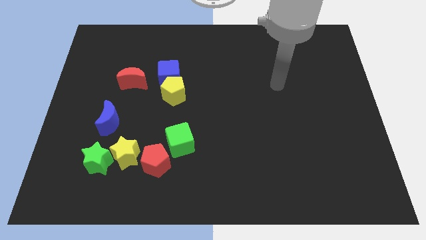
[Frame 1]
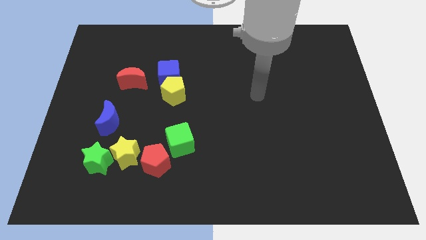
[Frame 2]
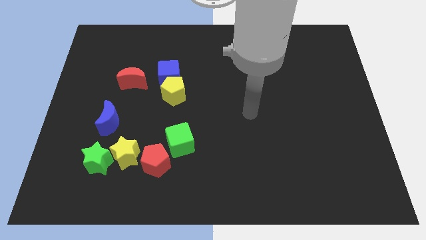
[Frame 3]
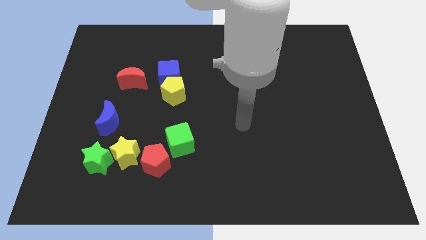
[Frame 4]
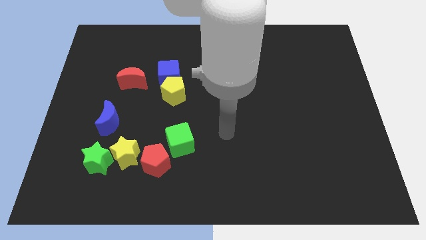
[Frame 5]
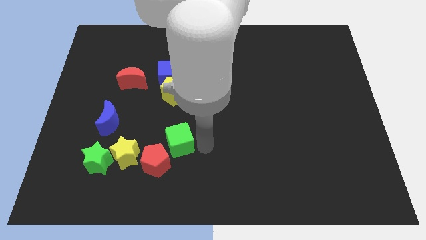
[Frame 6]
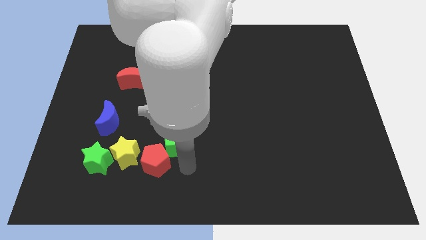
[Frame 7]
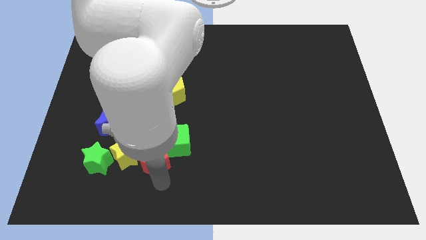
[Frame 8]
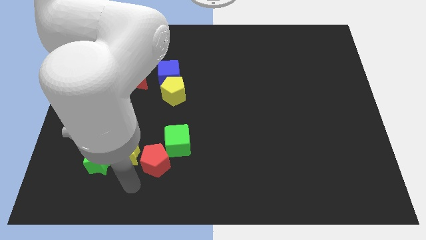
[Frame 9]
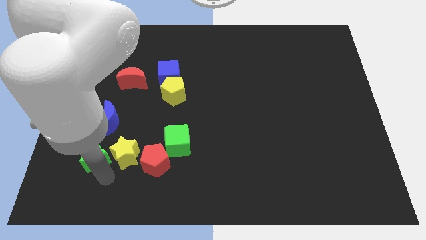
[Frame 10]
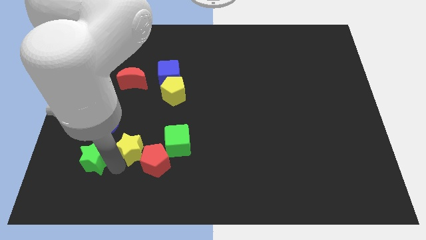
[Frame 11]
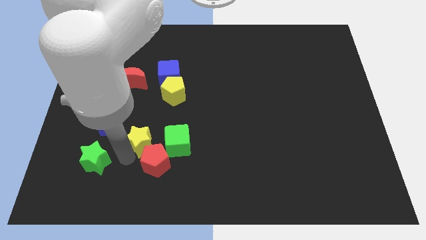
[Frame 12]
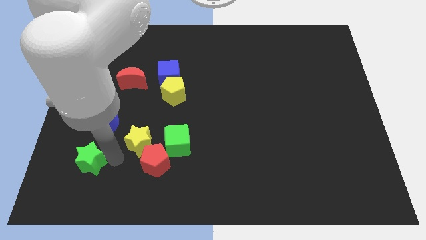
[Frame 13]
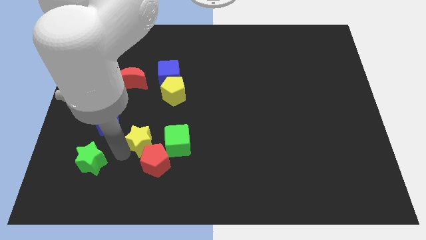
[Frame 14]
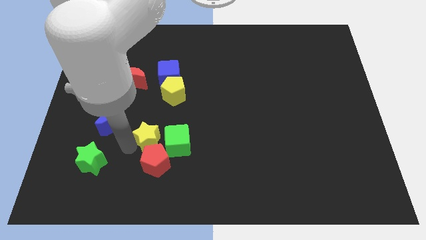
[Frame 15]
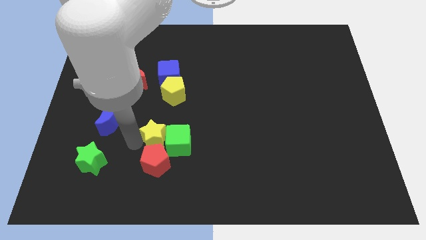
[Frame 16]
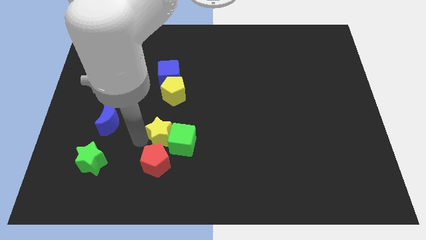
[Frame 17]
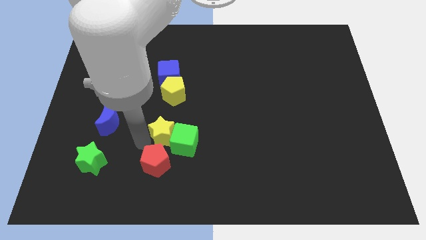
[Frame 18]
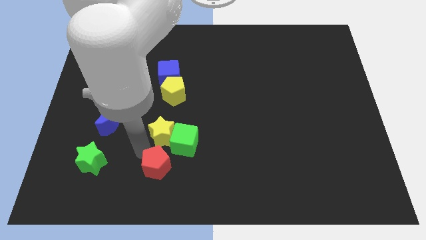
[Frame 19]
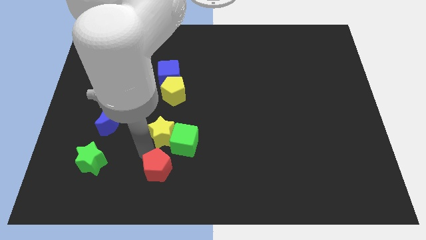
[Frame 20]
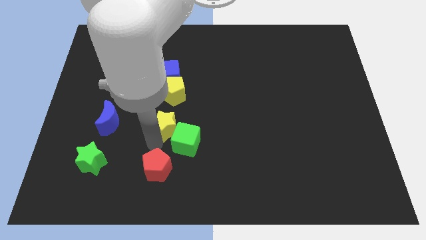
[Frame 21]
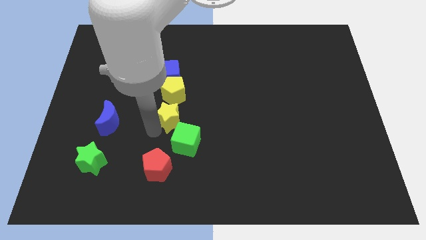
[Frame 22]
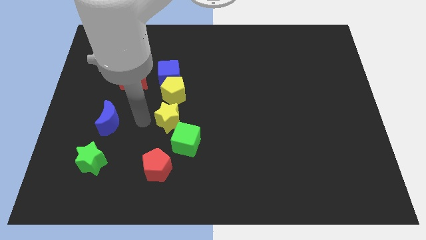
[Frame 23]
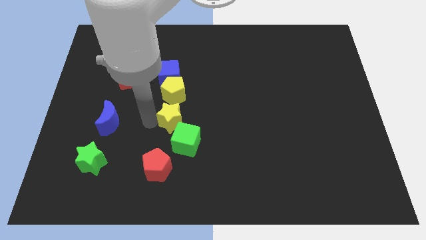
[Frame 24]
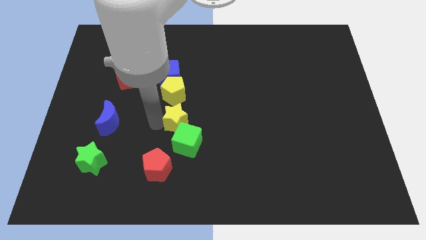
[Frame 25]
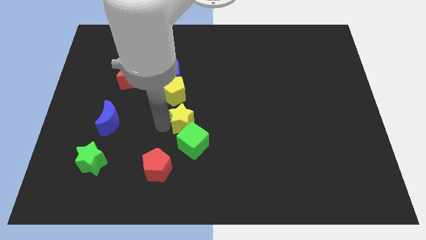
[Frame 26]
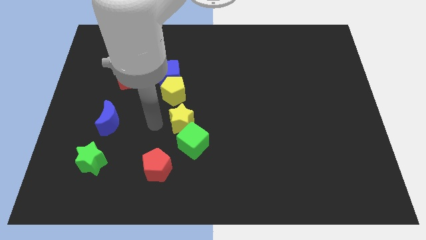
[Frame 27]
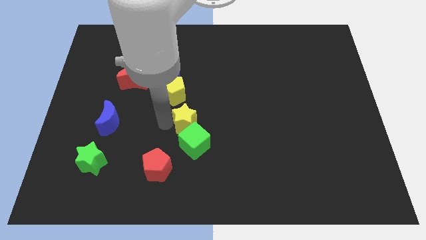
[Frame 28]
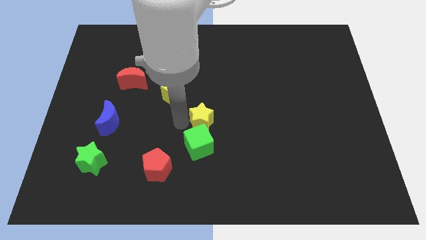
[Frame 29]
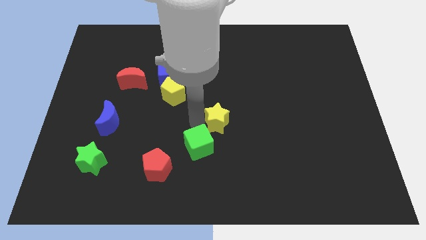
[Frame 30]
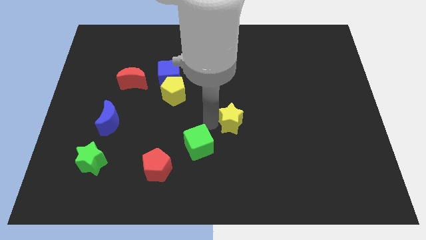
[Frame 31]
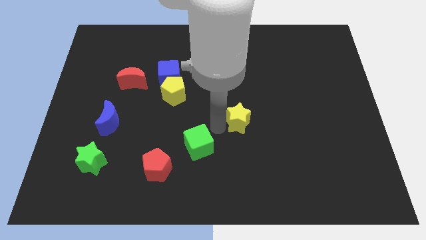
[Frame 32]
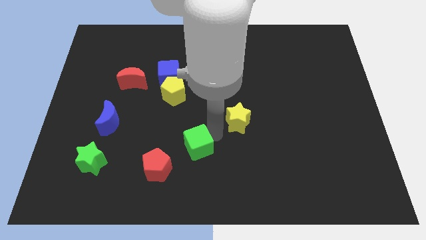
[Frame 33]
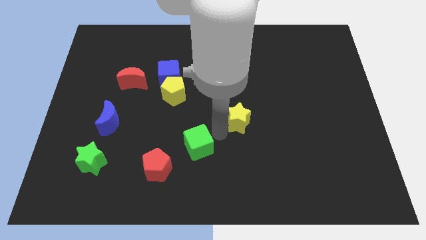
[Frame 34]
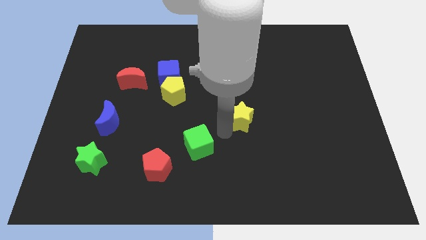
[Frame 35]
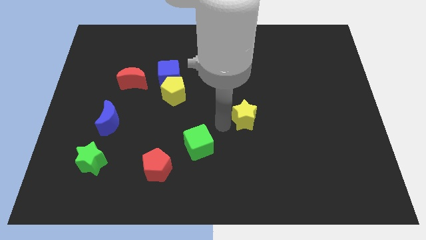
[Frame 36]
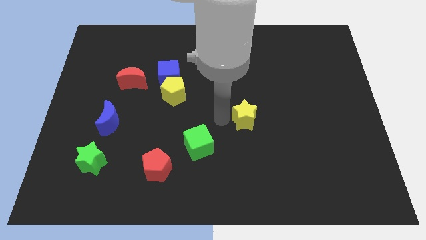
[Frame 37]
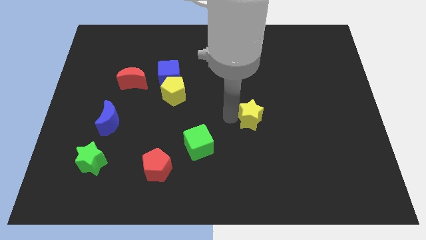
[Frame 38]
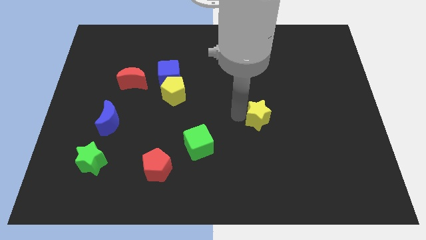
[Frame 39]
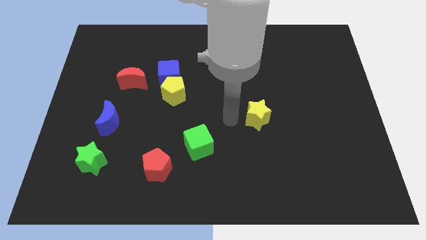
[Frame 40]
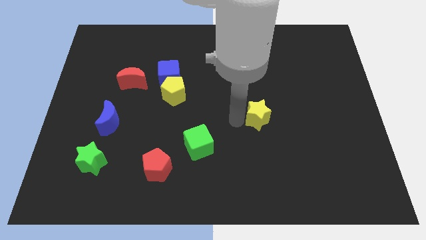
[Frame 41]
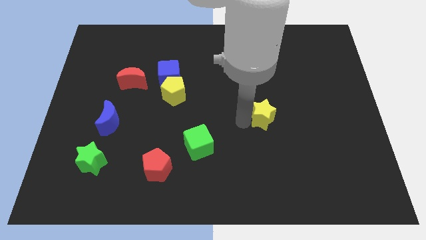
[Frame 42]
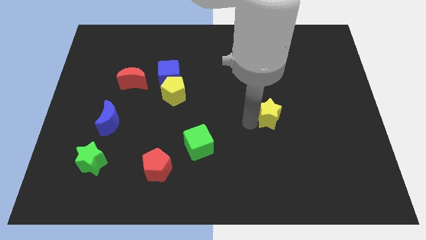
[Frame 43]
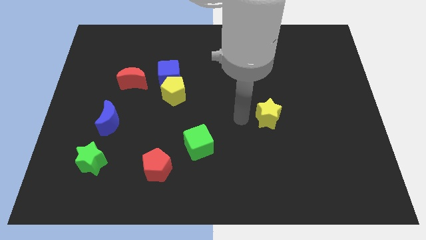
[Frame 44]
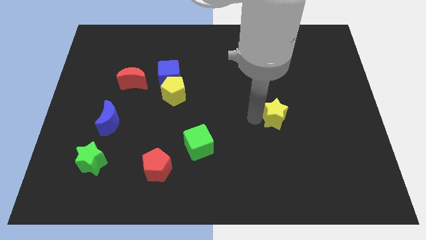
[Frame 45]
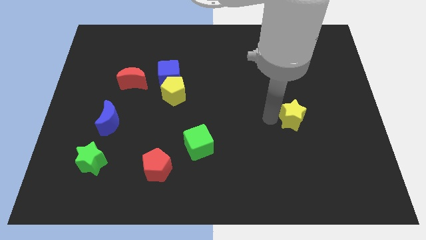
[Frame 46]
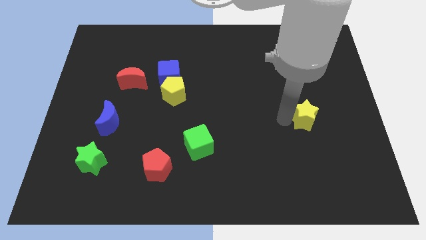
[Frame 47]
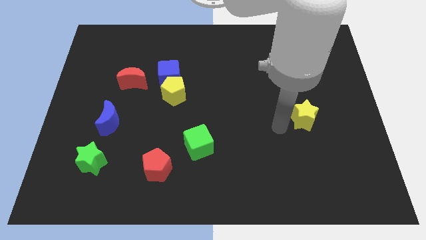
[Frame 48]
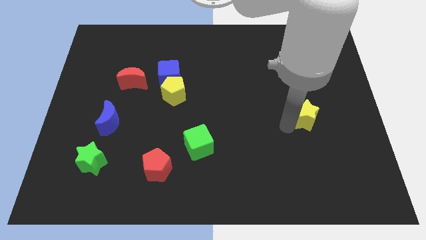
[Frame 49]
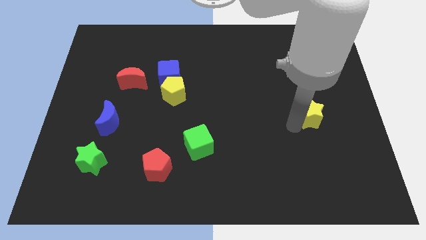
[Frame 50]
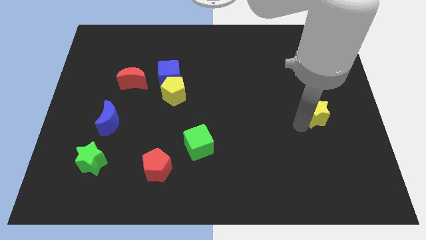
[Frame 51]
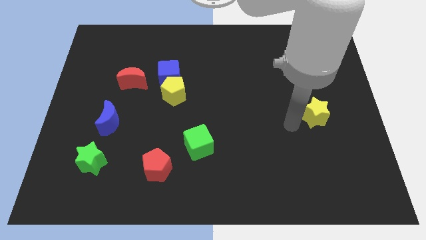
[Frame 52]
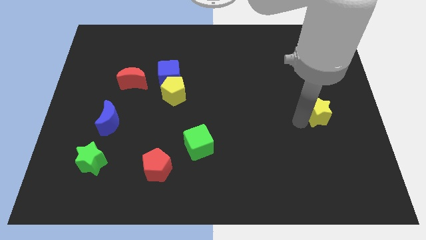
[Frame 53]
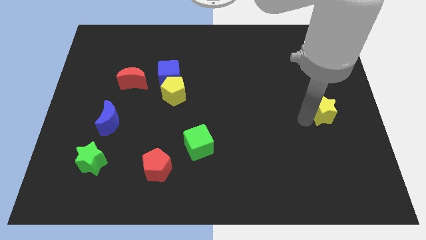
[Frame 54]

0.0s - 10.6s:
push the yellow star to the right side

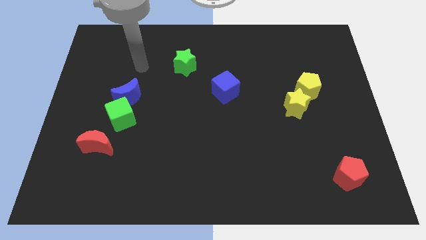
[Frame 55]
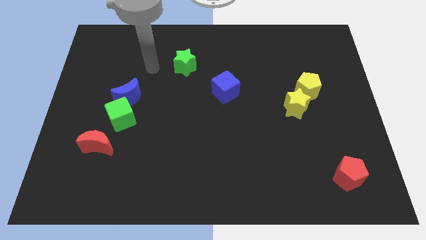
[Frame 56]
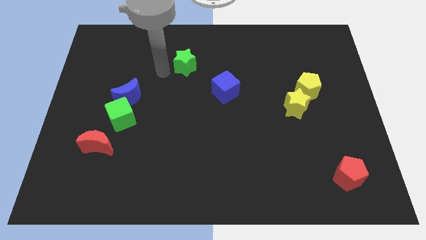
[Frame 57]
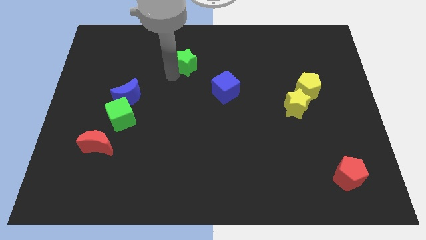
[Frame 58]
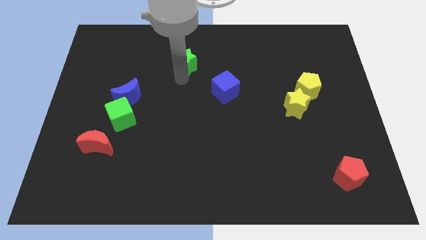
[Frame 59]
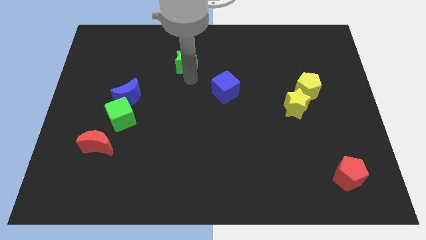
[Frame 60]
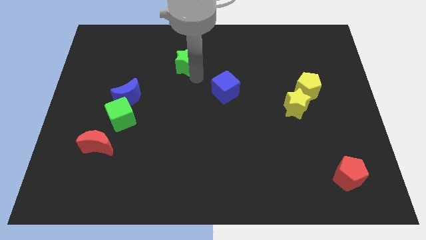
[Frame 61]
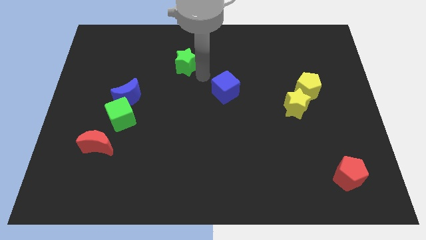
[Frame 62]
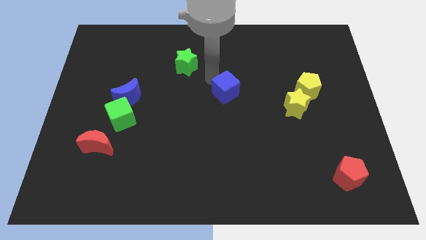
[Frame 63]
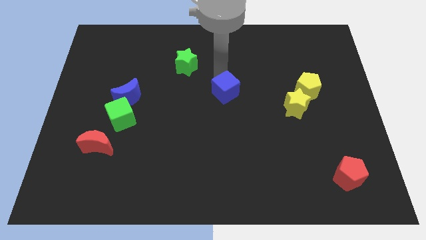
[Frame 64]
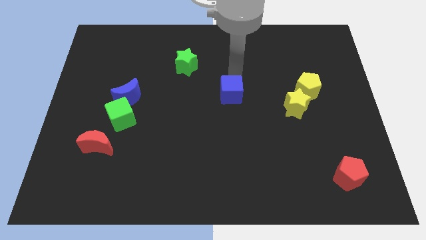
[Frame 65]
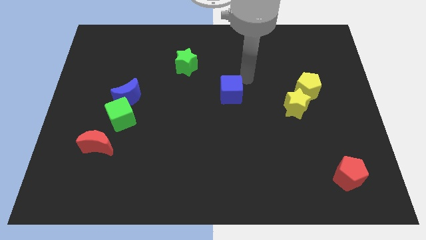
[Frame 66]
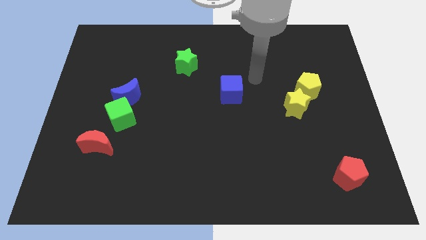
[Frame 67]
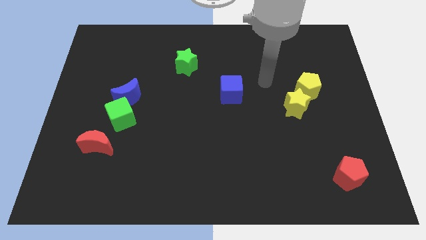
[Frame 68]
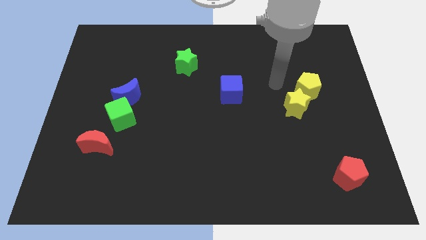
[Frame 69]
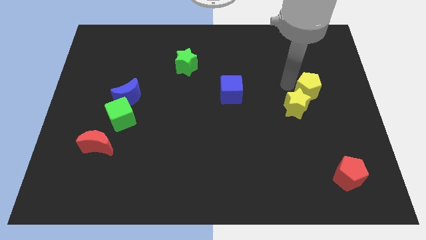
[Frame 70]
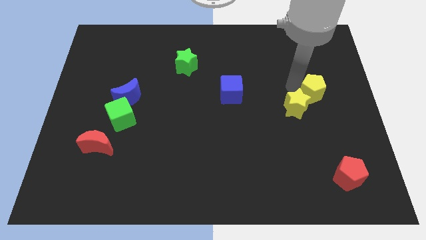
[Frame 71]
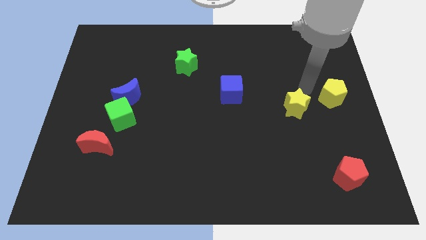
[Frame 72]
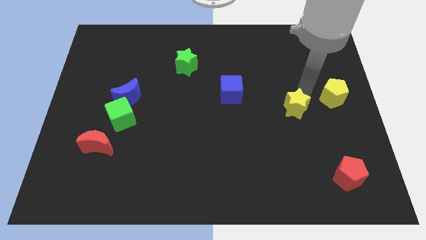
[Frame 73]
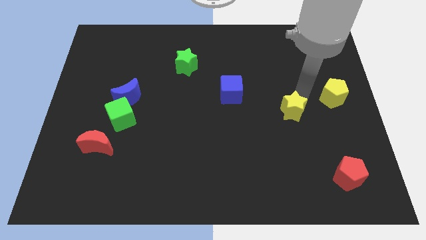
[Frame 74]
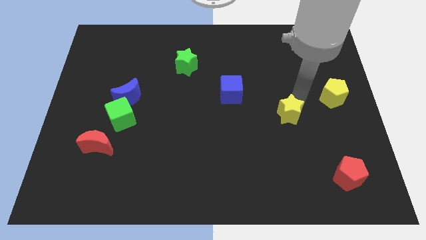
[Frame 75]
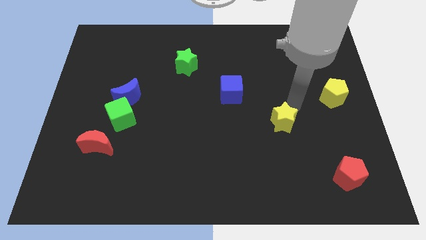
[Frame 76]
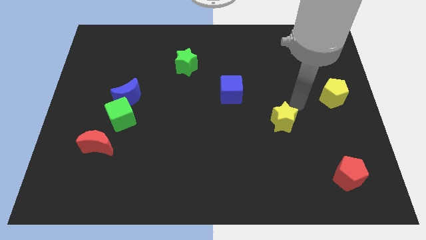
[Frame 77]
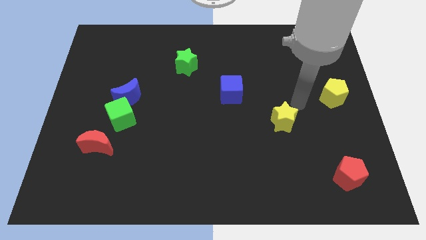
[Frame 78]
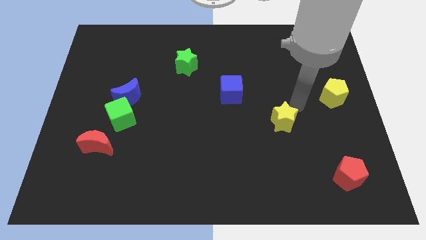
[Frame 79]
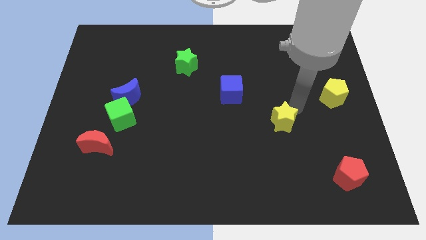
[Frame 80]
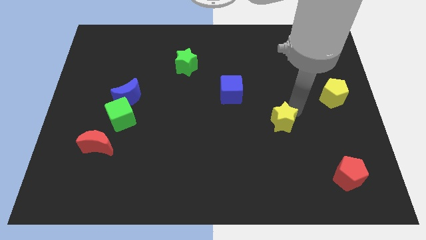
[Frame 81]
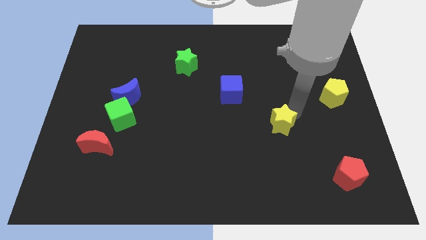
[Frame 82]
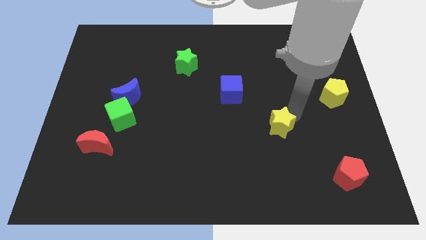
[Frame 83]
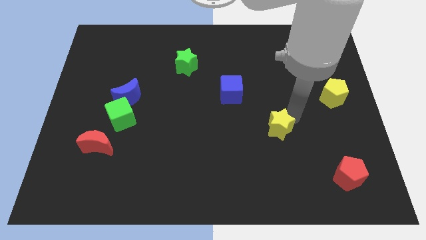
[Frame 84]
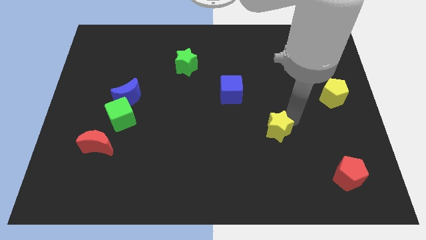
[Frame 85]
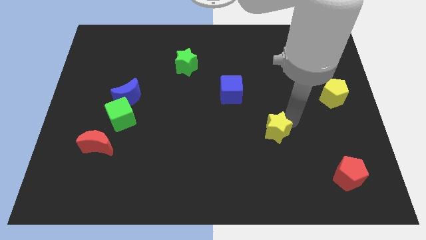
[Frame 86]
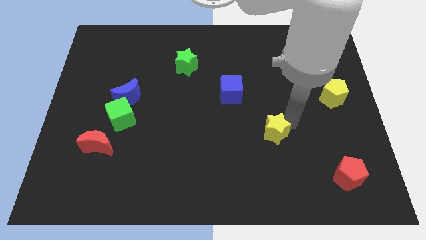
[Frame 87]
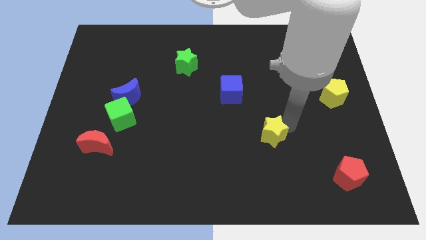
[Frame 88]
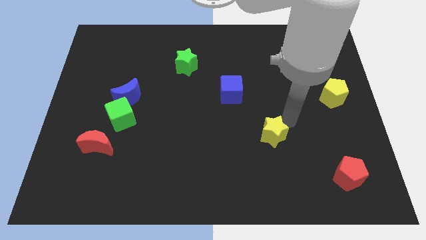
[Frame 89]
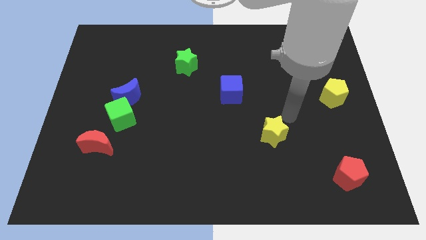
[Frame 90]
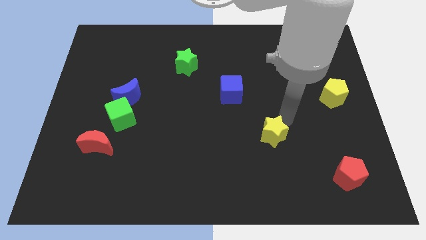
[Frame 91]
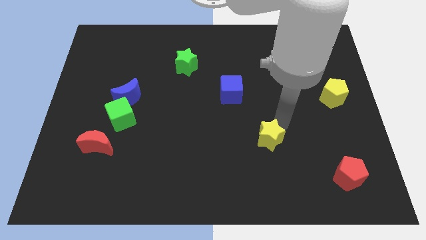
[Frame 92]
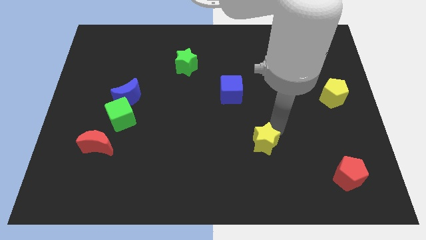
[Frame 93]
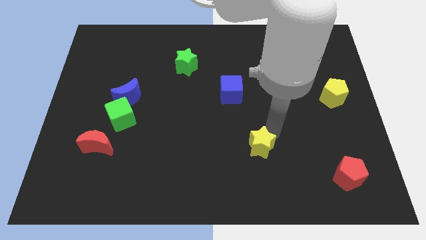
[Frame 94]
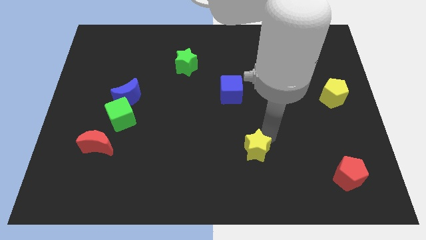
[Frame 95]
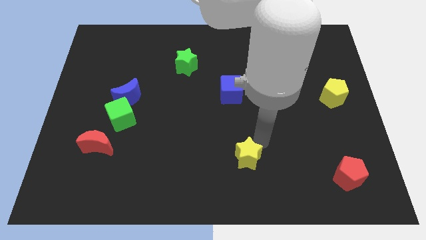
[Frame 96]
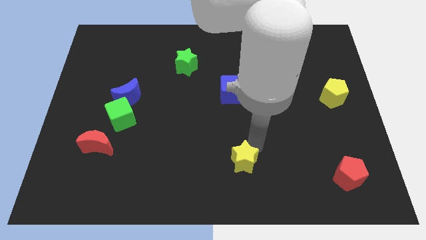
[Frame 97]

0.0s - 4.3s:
push the yellow star to the bottom
